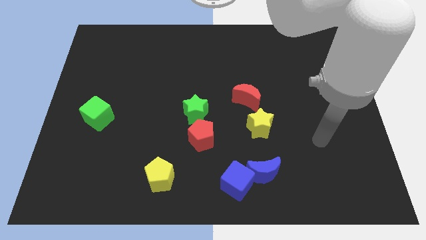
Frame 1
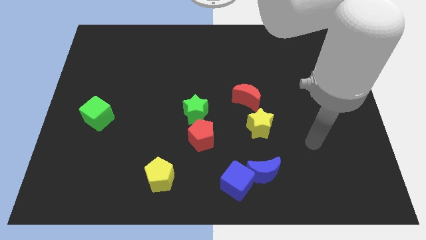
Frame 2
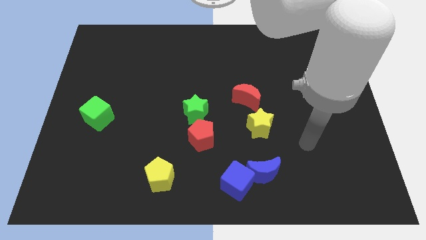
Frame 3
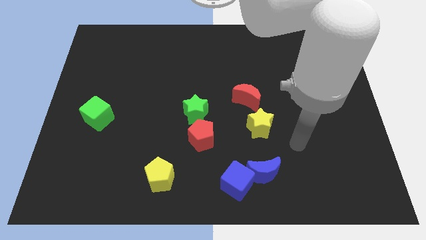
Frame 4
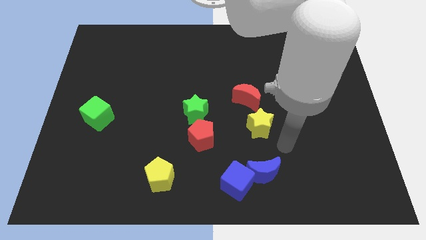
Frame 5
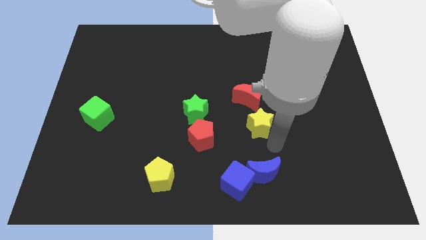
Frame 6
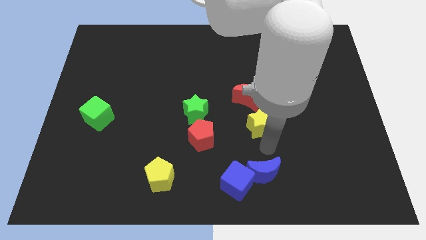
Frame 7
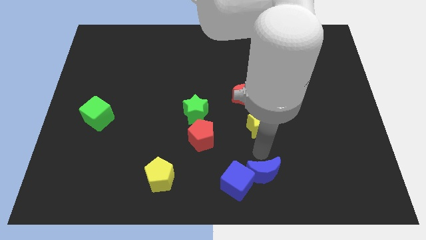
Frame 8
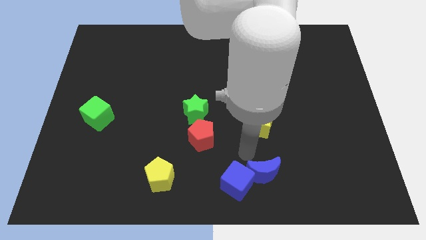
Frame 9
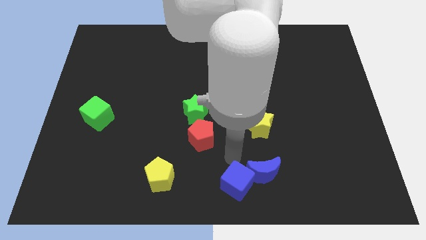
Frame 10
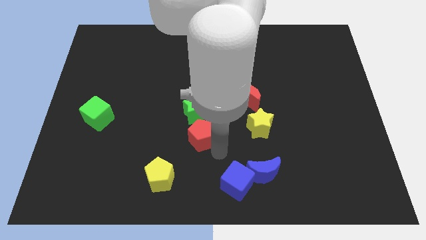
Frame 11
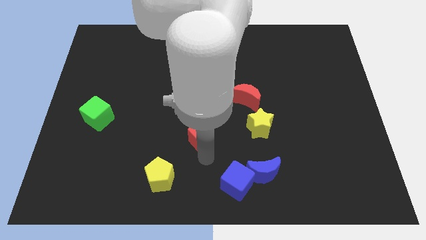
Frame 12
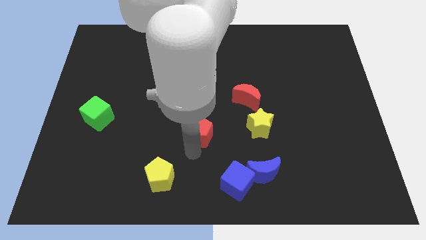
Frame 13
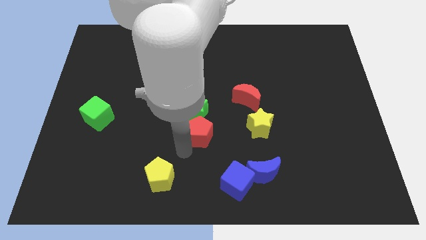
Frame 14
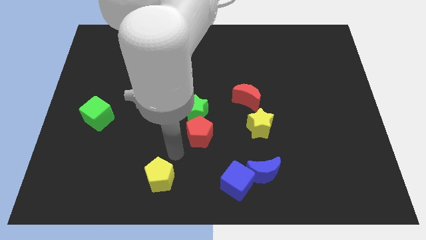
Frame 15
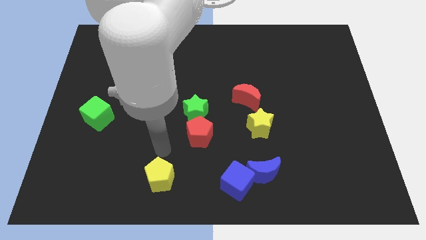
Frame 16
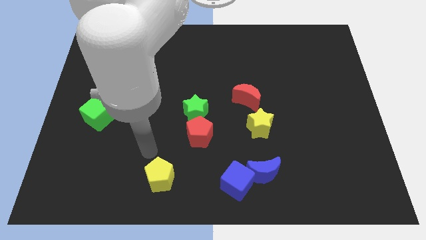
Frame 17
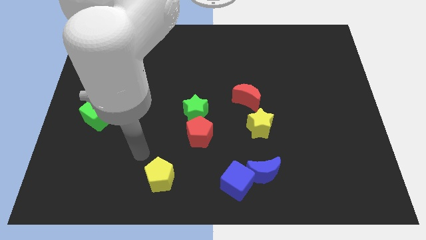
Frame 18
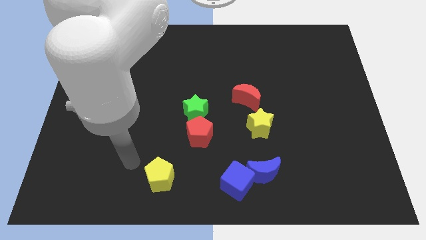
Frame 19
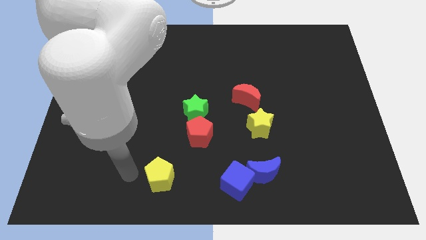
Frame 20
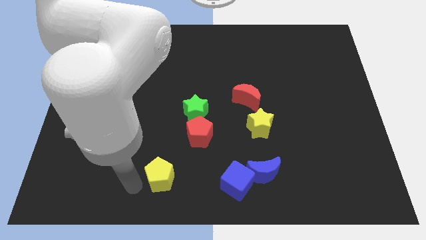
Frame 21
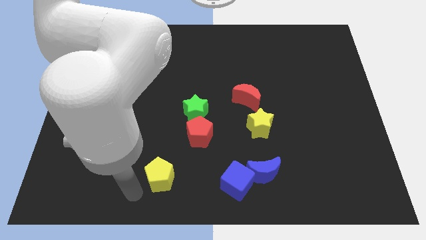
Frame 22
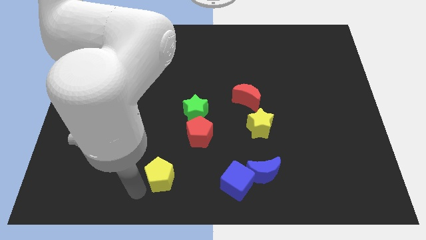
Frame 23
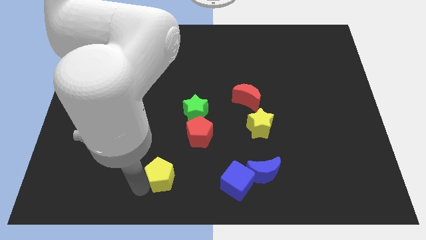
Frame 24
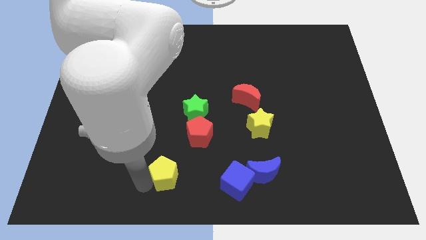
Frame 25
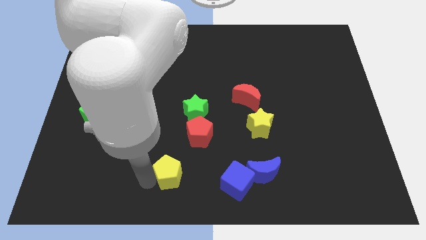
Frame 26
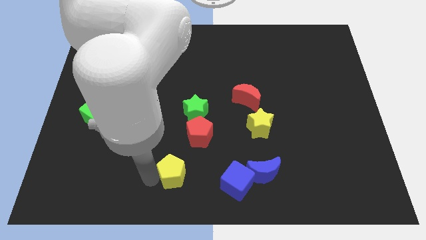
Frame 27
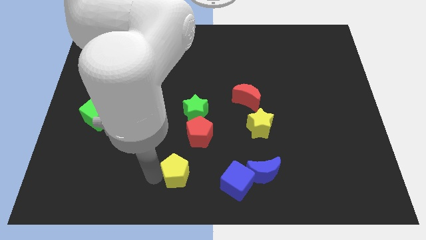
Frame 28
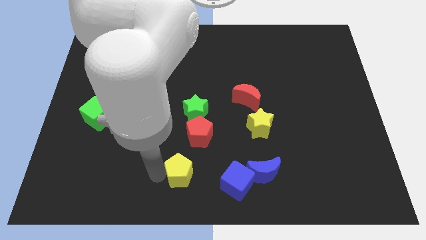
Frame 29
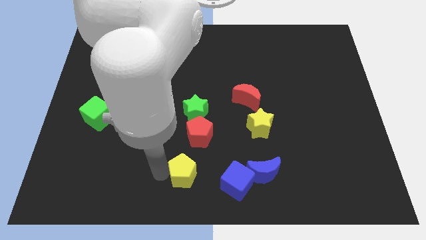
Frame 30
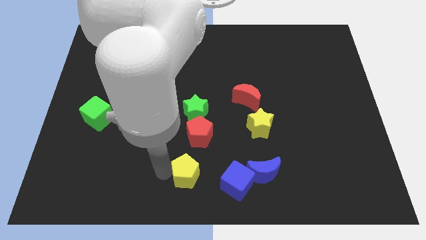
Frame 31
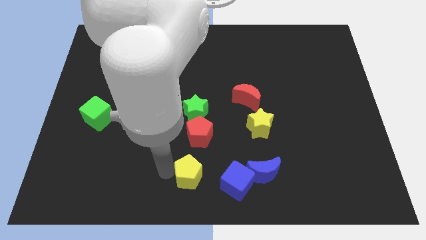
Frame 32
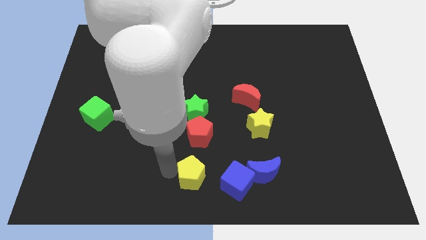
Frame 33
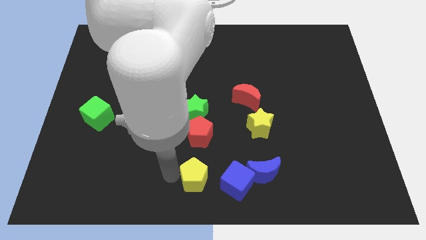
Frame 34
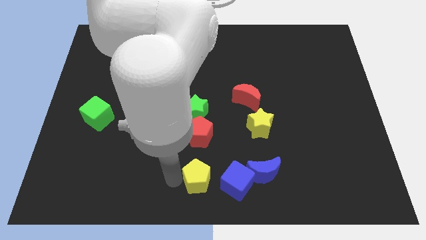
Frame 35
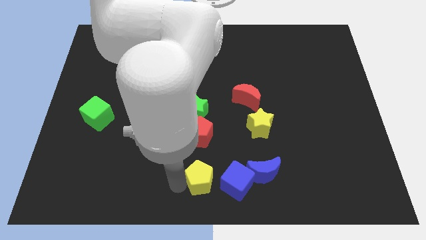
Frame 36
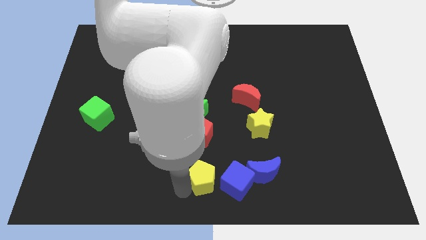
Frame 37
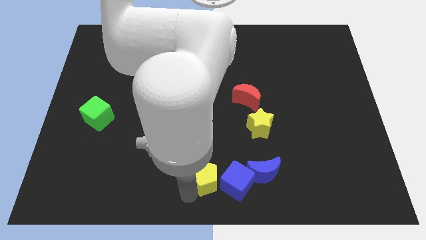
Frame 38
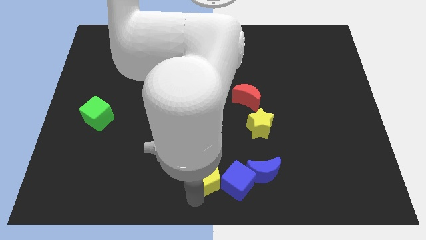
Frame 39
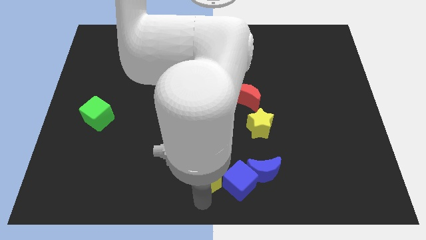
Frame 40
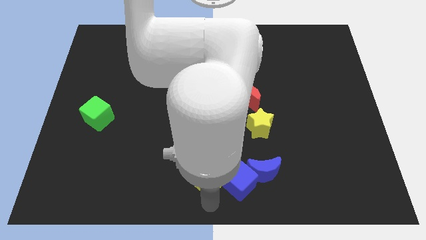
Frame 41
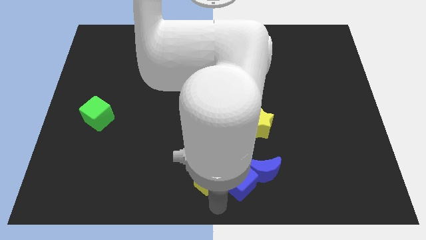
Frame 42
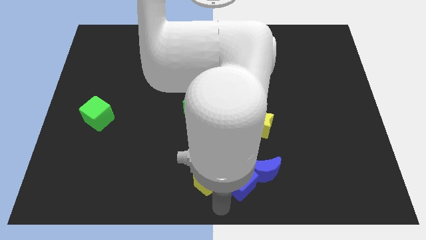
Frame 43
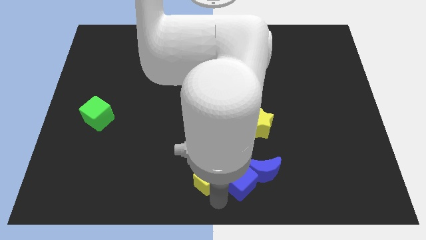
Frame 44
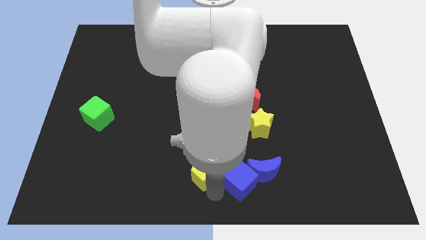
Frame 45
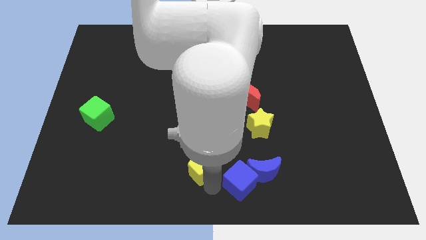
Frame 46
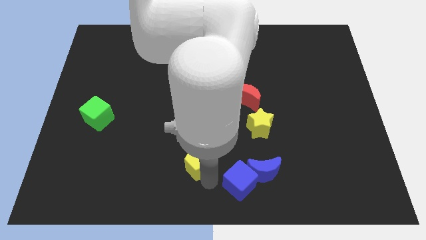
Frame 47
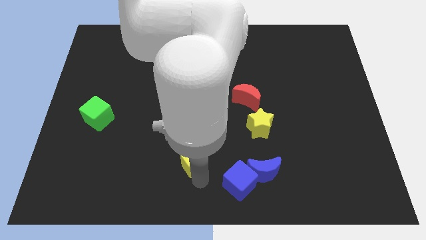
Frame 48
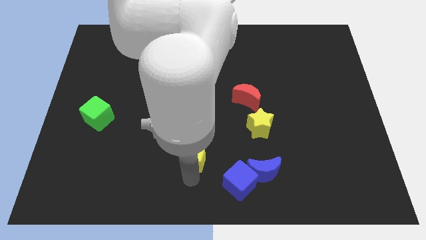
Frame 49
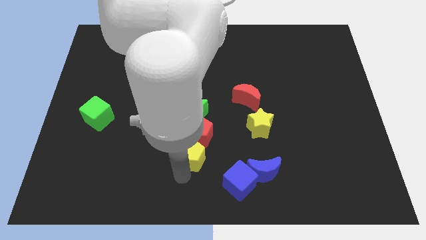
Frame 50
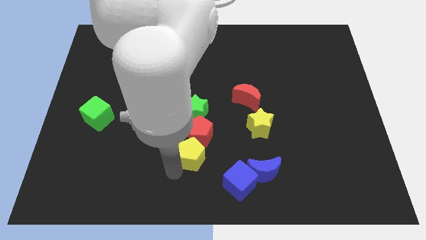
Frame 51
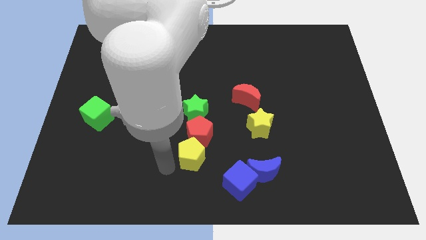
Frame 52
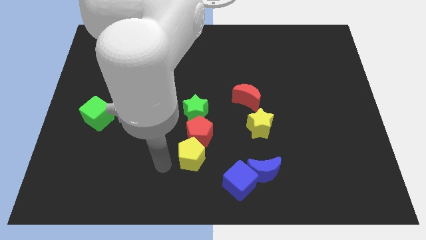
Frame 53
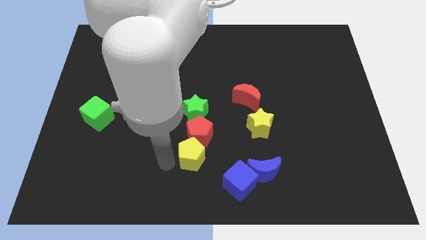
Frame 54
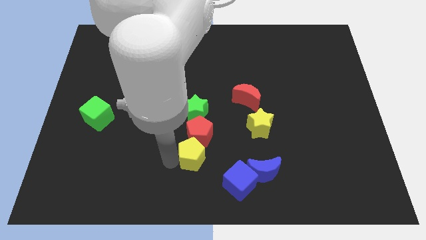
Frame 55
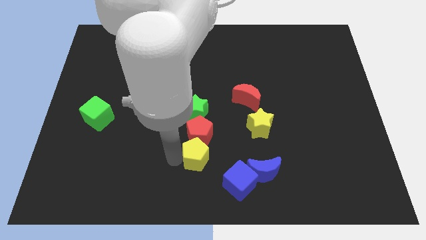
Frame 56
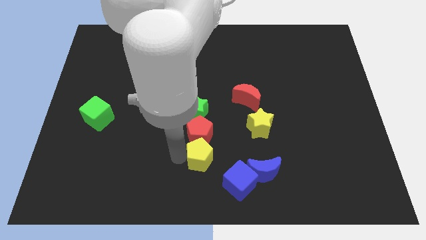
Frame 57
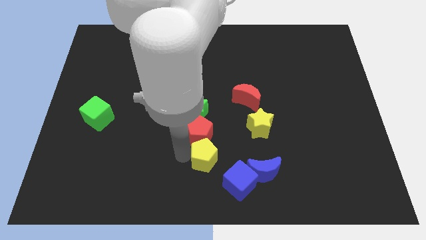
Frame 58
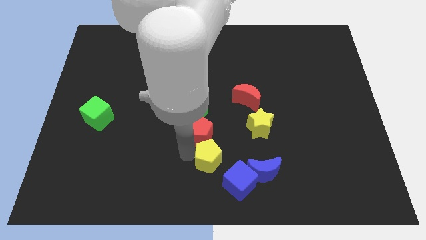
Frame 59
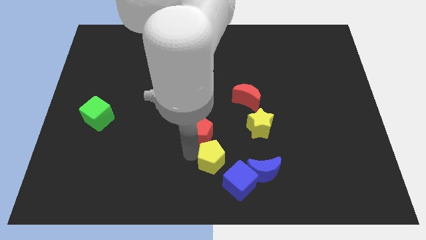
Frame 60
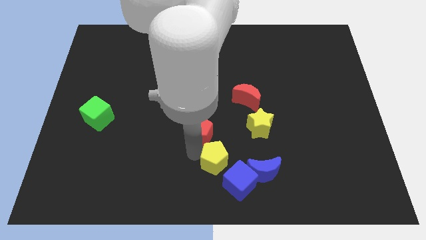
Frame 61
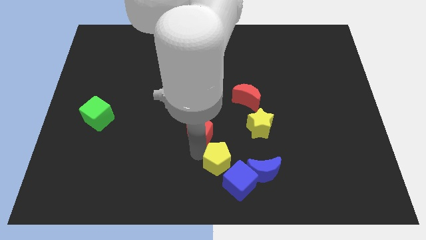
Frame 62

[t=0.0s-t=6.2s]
push the yellow pentagon to the bottom left side of the yellow star
